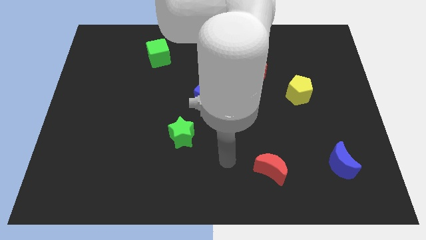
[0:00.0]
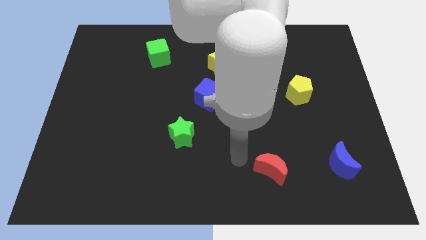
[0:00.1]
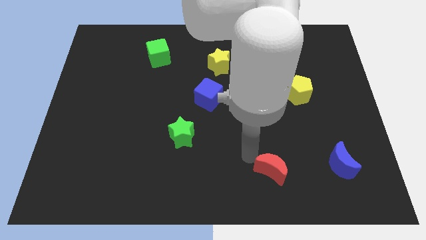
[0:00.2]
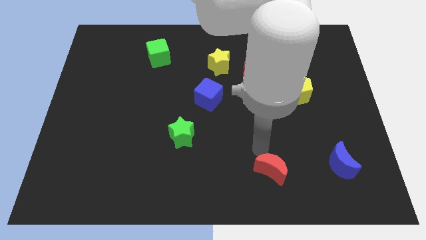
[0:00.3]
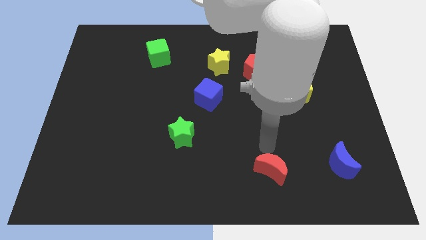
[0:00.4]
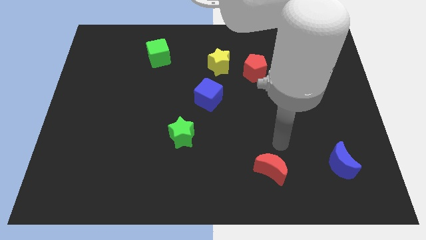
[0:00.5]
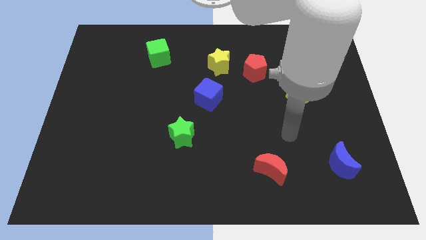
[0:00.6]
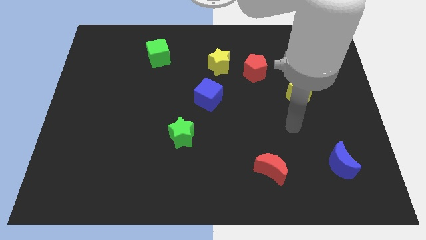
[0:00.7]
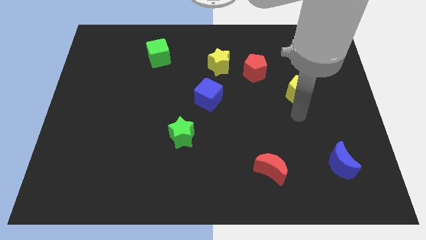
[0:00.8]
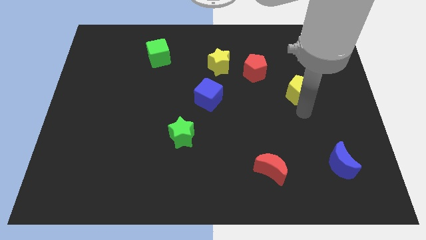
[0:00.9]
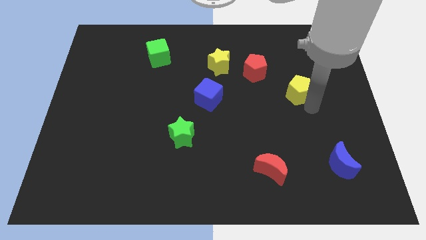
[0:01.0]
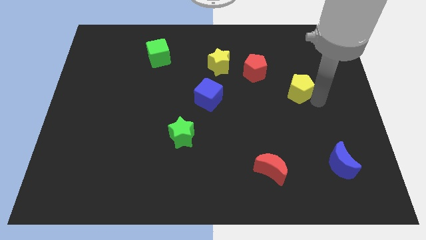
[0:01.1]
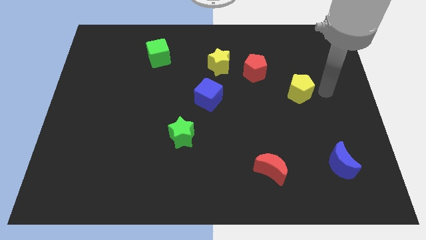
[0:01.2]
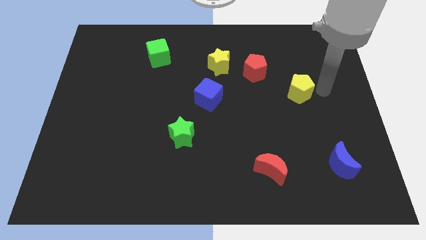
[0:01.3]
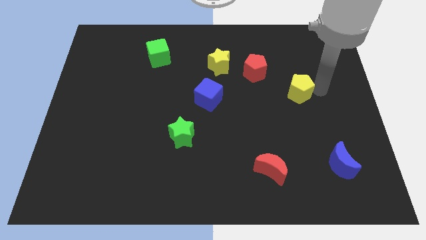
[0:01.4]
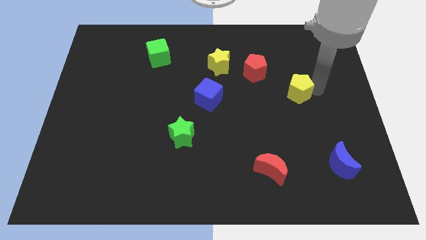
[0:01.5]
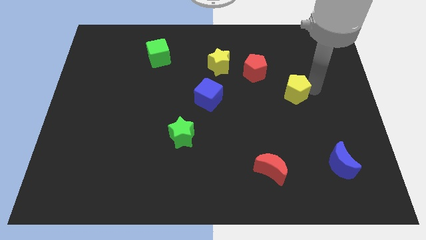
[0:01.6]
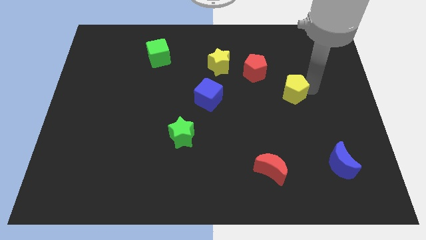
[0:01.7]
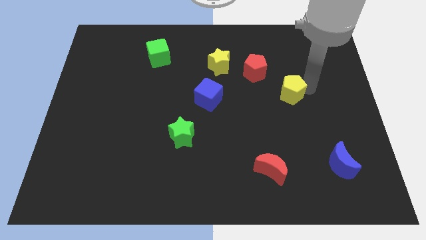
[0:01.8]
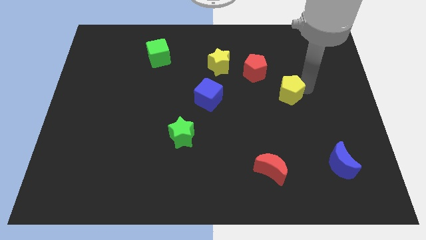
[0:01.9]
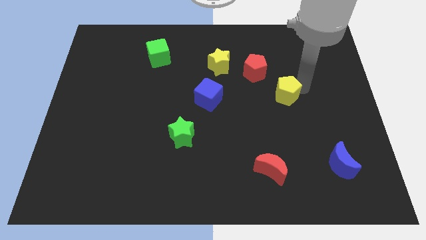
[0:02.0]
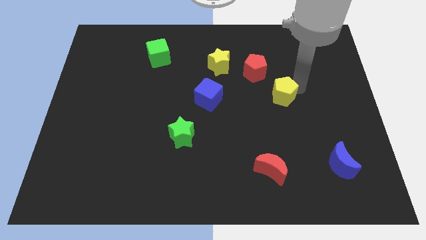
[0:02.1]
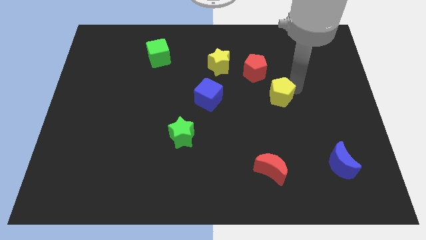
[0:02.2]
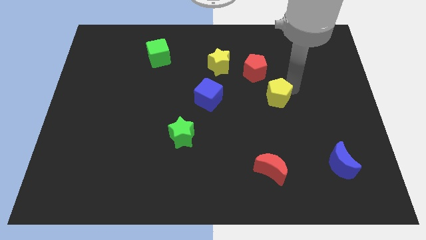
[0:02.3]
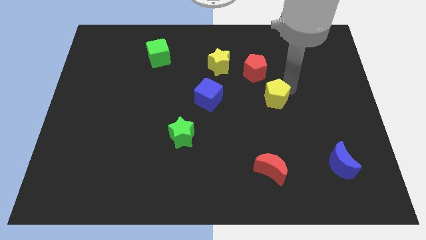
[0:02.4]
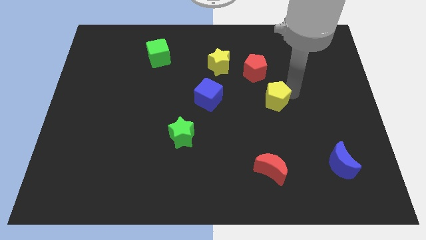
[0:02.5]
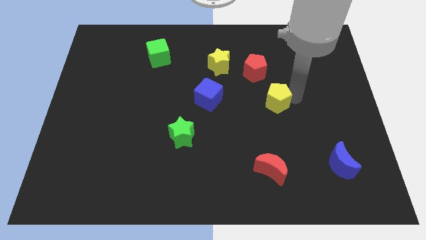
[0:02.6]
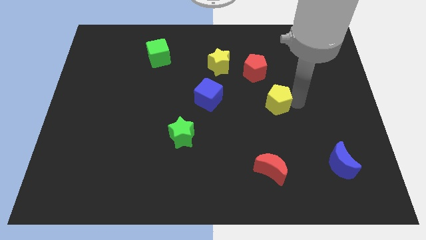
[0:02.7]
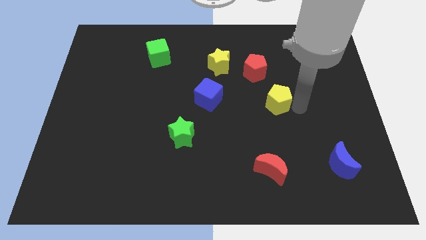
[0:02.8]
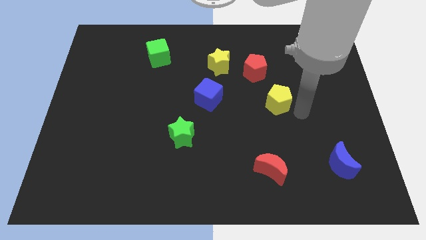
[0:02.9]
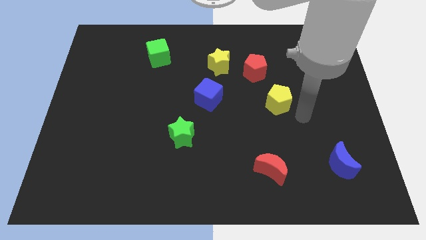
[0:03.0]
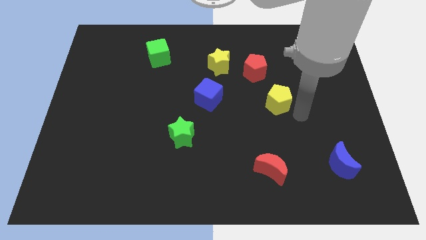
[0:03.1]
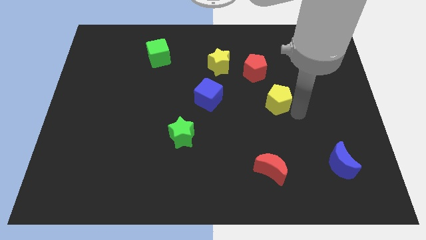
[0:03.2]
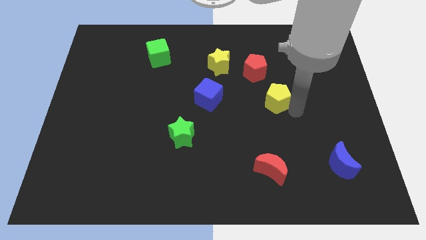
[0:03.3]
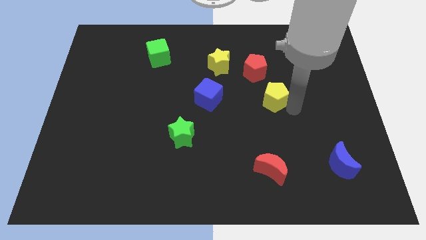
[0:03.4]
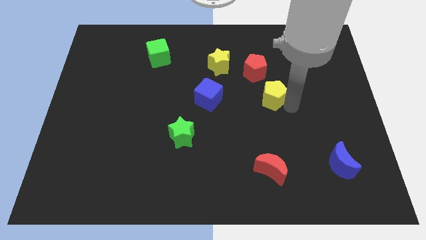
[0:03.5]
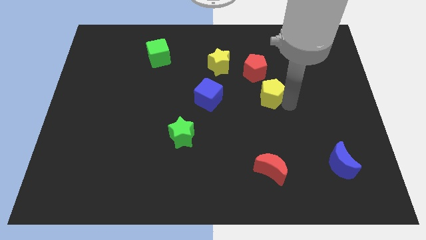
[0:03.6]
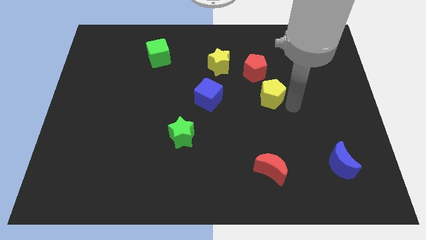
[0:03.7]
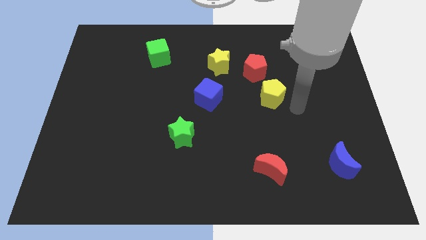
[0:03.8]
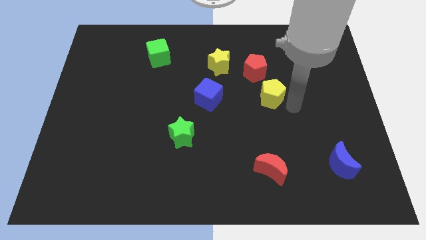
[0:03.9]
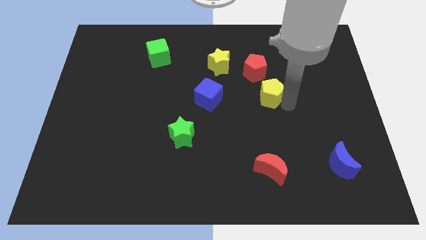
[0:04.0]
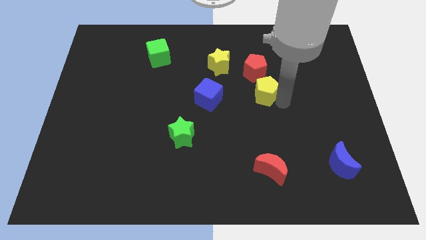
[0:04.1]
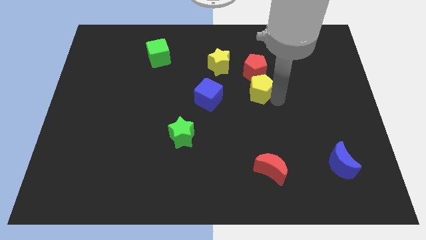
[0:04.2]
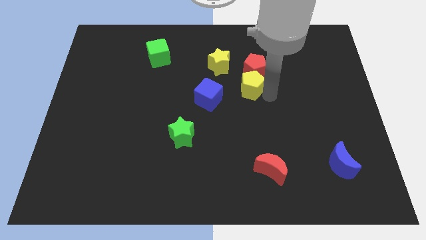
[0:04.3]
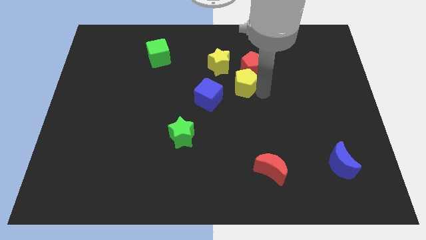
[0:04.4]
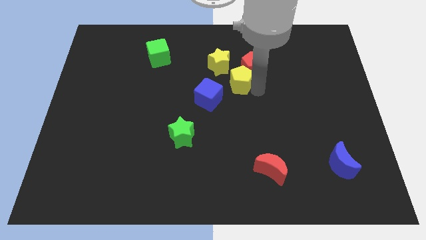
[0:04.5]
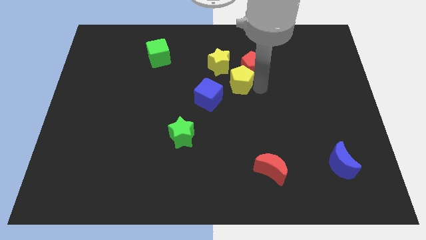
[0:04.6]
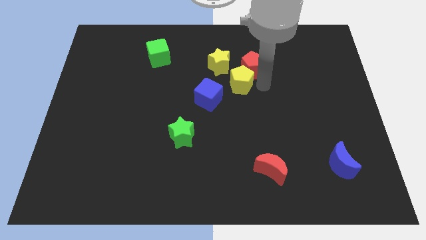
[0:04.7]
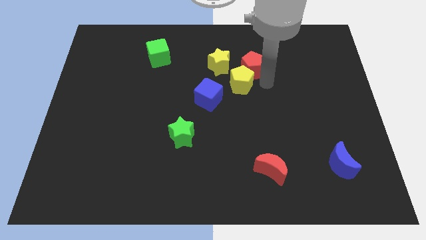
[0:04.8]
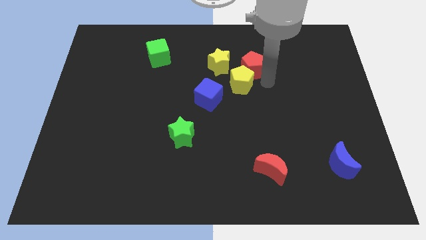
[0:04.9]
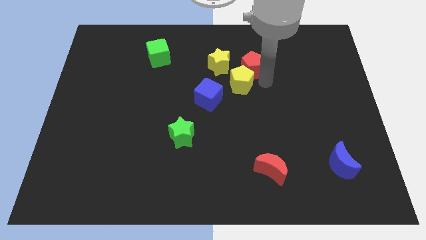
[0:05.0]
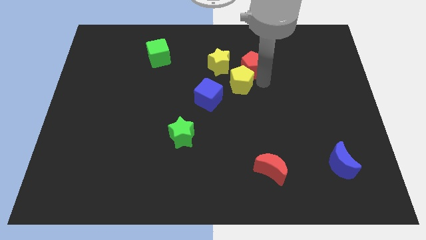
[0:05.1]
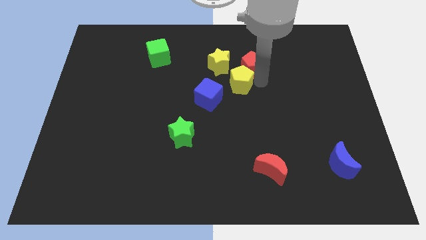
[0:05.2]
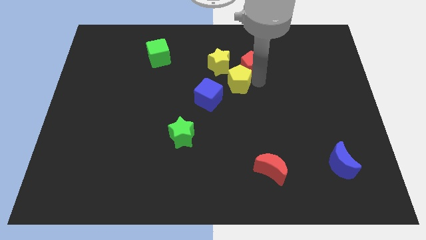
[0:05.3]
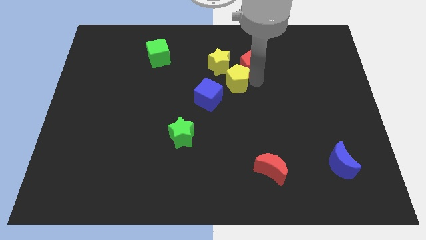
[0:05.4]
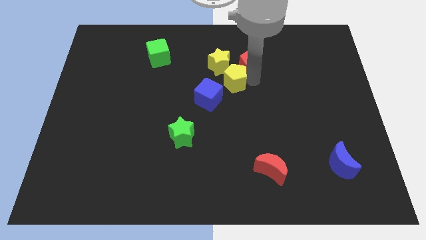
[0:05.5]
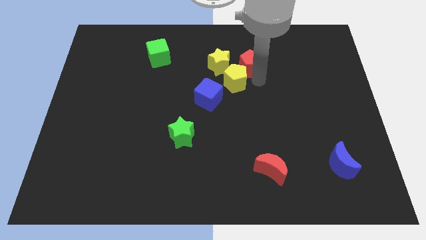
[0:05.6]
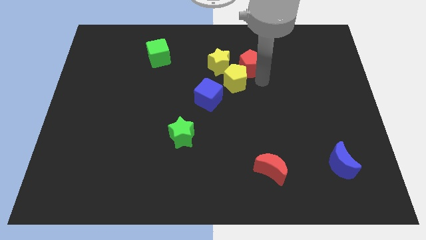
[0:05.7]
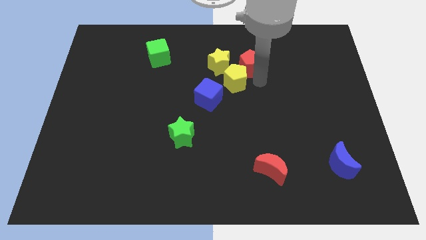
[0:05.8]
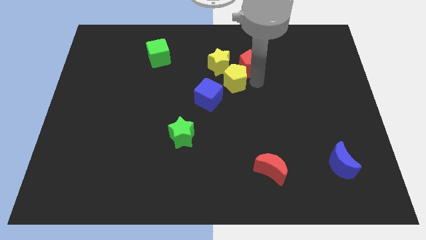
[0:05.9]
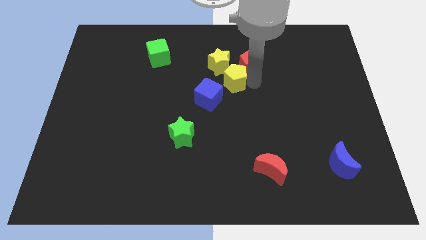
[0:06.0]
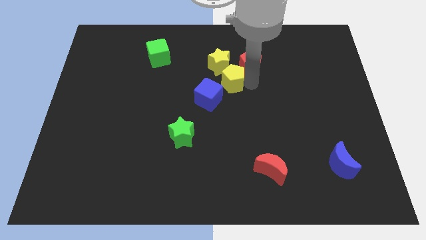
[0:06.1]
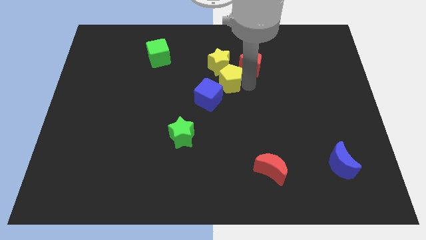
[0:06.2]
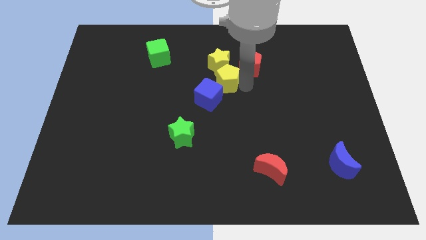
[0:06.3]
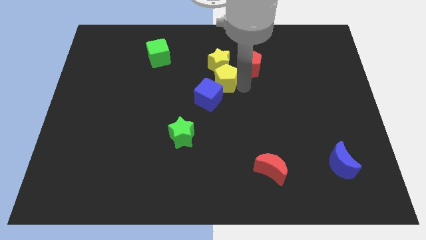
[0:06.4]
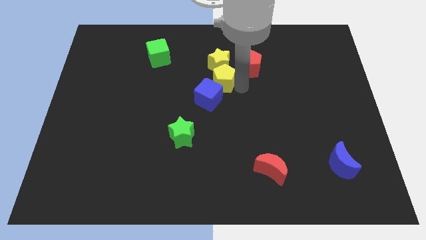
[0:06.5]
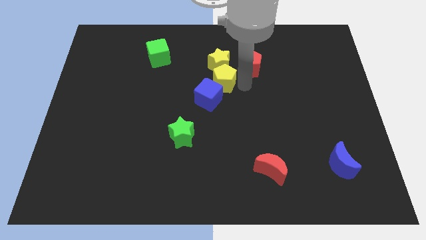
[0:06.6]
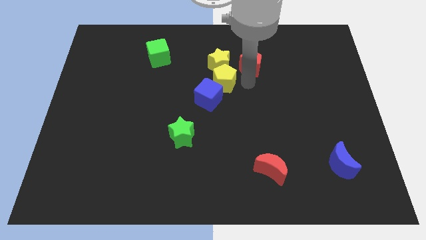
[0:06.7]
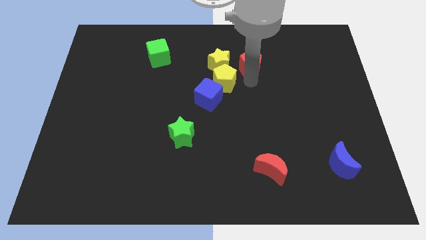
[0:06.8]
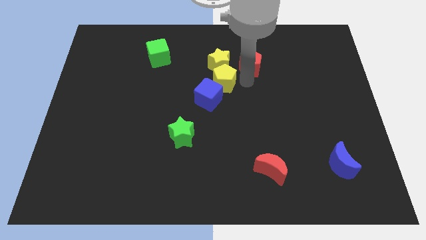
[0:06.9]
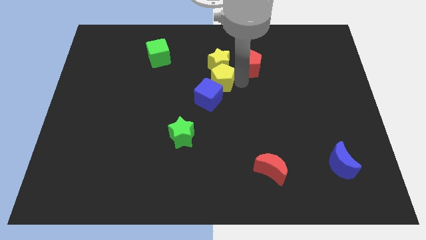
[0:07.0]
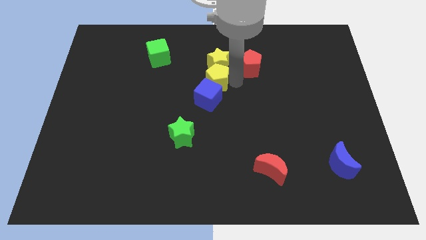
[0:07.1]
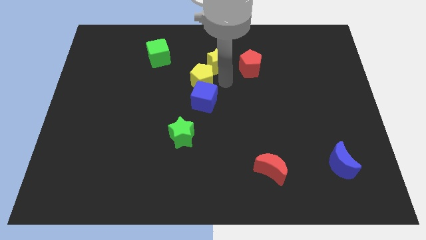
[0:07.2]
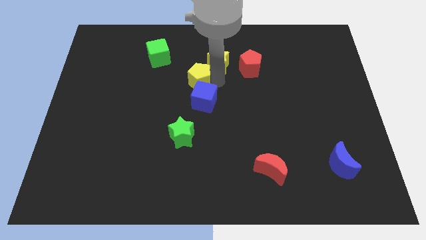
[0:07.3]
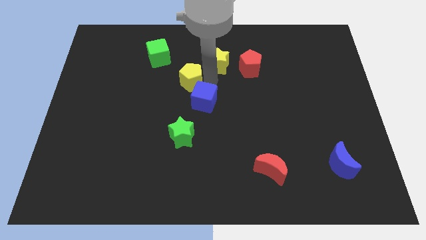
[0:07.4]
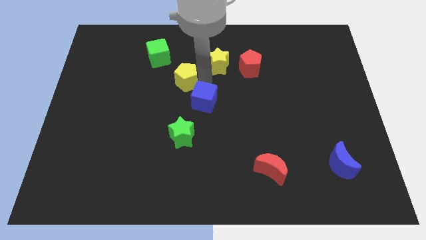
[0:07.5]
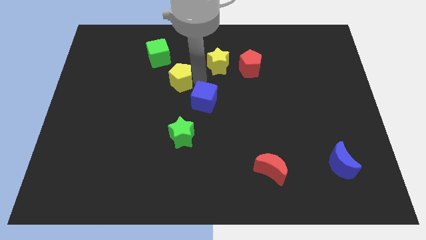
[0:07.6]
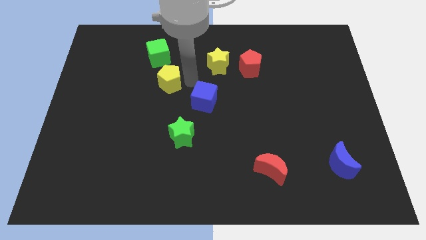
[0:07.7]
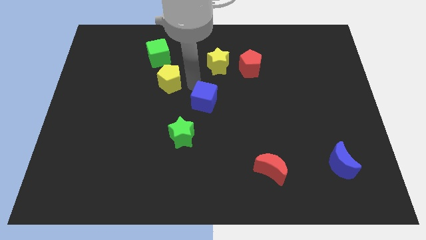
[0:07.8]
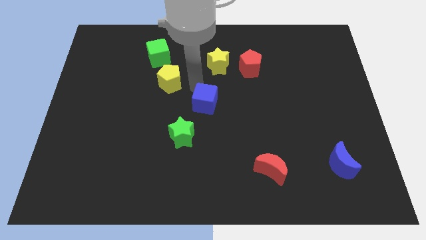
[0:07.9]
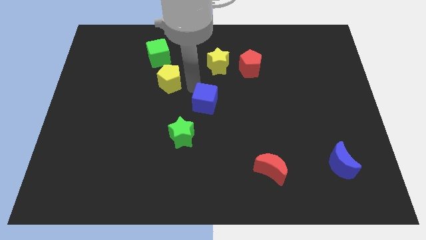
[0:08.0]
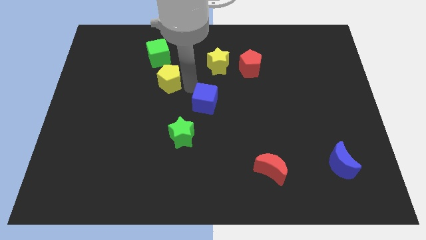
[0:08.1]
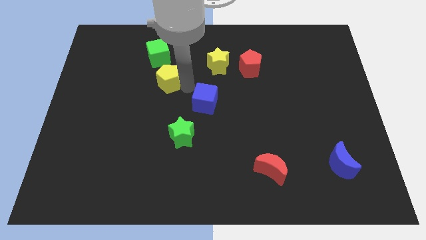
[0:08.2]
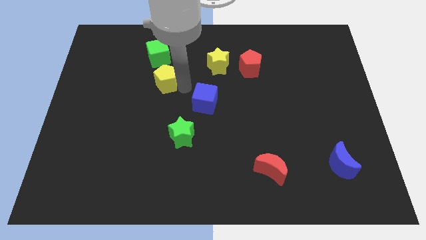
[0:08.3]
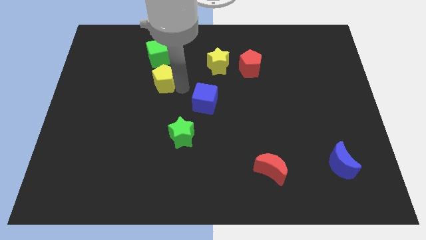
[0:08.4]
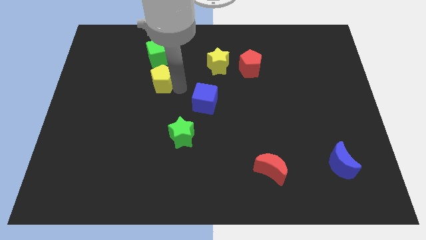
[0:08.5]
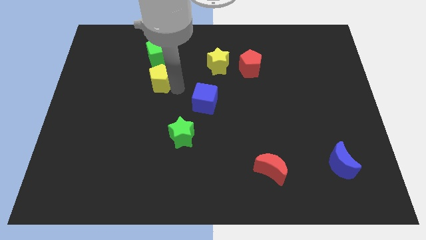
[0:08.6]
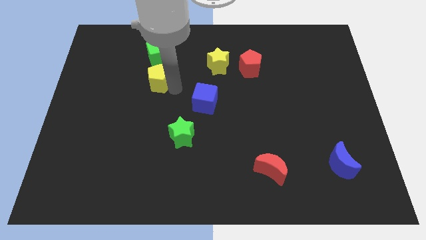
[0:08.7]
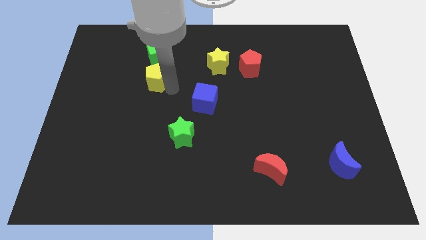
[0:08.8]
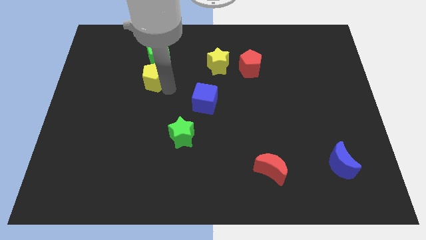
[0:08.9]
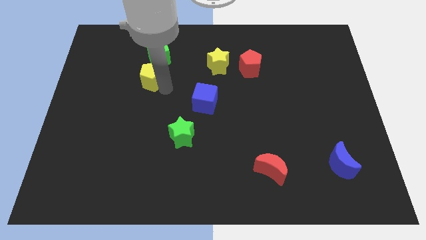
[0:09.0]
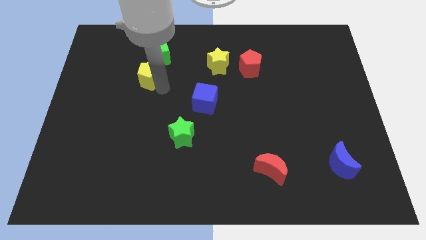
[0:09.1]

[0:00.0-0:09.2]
slide the yellow pentagon to the bottom left side of the green cube
